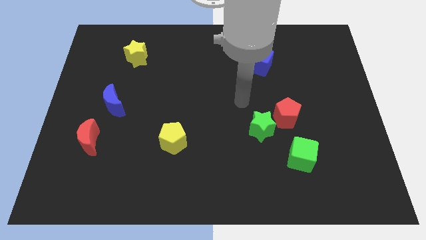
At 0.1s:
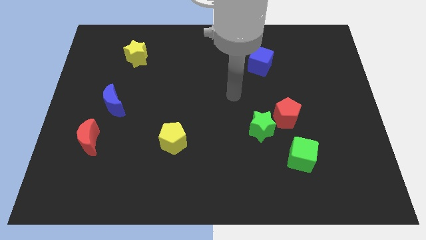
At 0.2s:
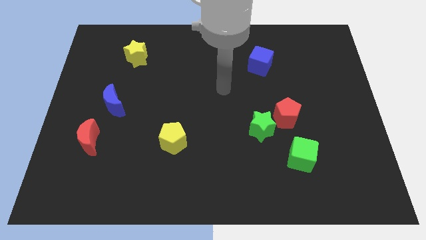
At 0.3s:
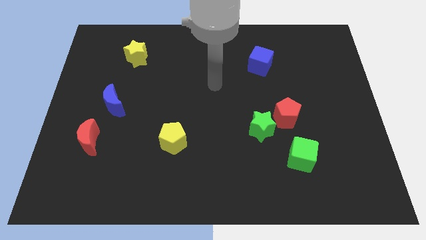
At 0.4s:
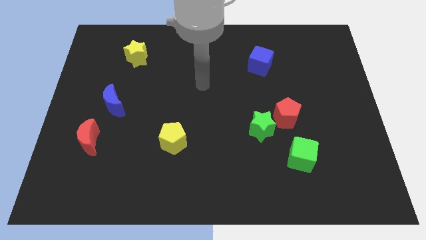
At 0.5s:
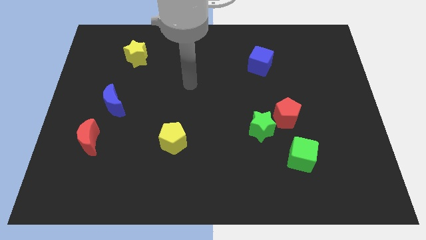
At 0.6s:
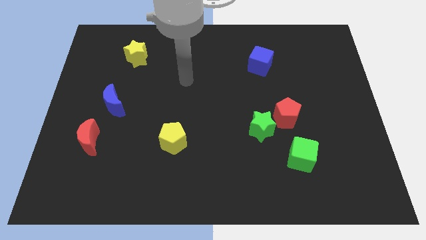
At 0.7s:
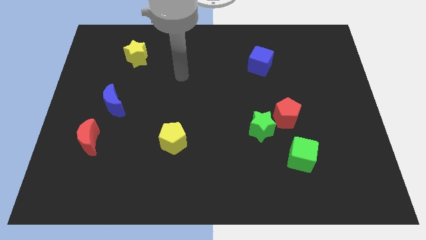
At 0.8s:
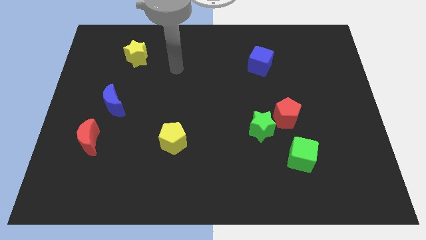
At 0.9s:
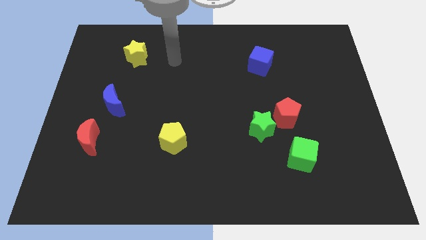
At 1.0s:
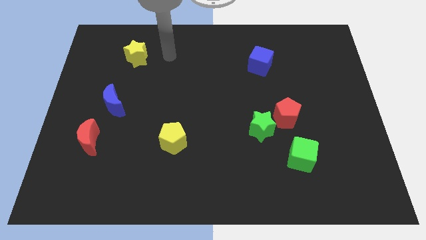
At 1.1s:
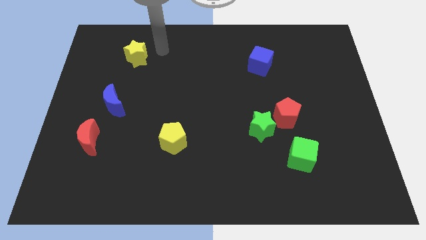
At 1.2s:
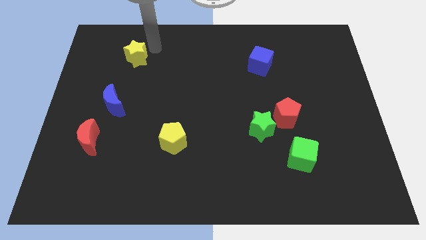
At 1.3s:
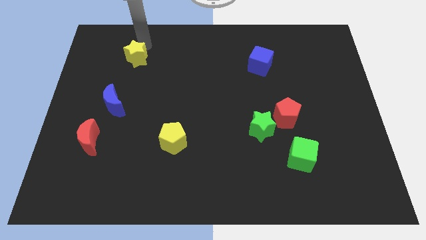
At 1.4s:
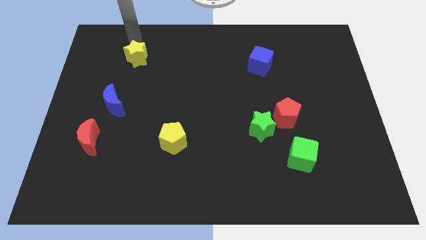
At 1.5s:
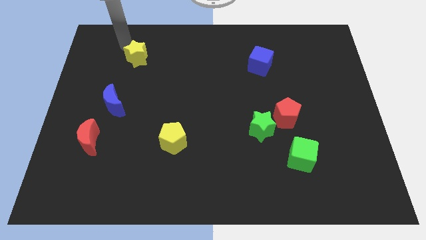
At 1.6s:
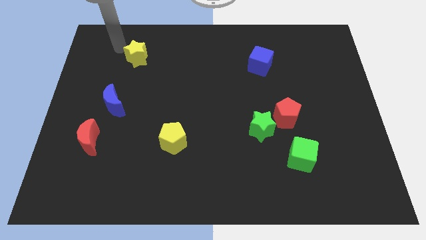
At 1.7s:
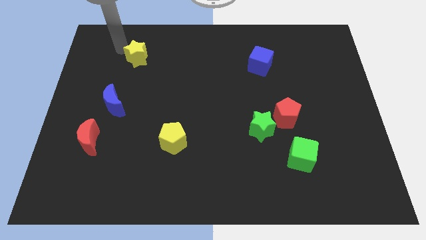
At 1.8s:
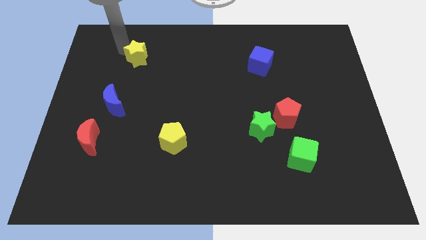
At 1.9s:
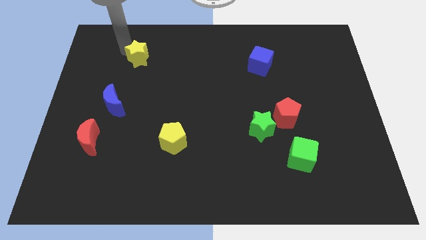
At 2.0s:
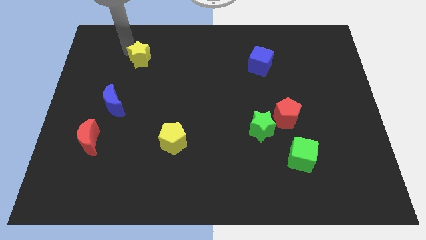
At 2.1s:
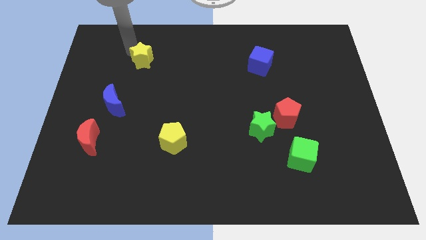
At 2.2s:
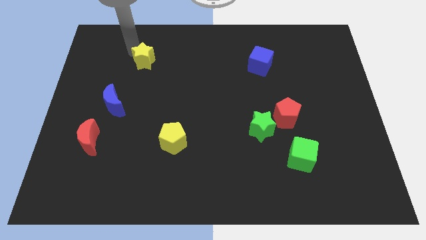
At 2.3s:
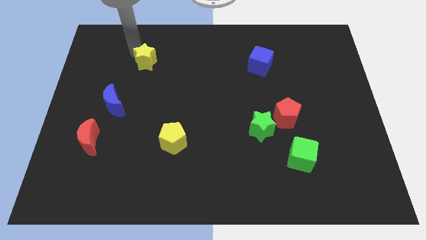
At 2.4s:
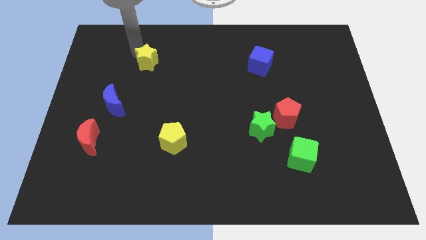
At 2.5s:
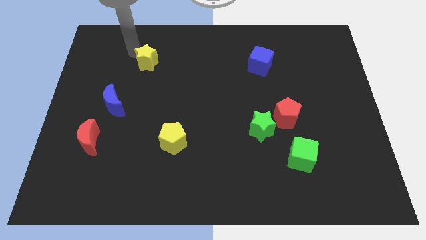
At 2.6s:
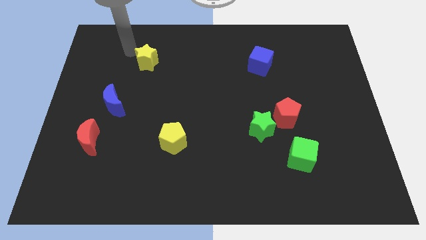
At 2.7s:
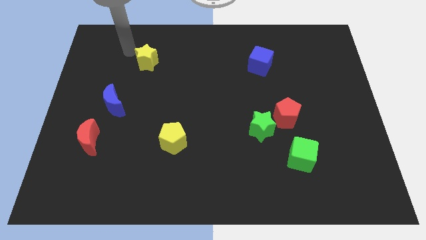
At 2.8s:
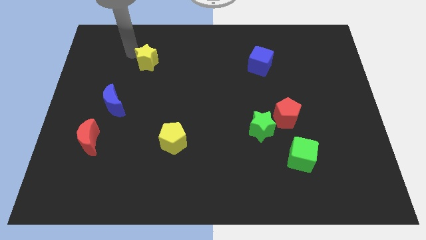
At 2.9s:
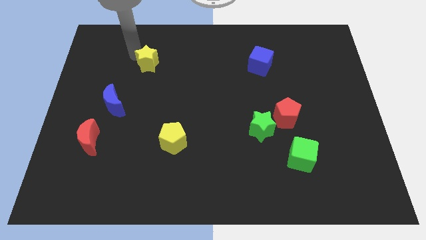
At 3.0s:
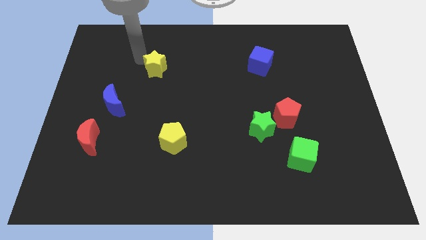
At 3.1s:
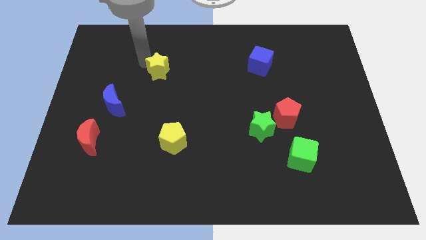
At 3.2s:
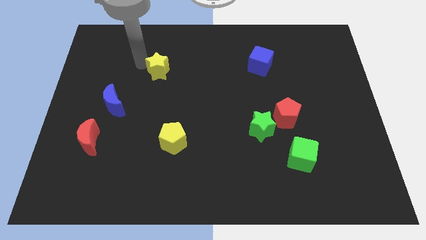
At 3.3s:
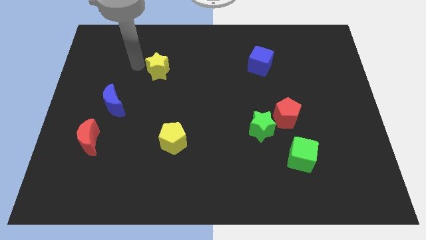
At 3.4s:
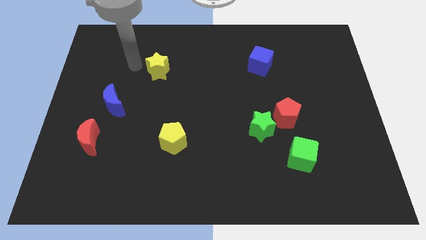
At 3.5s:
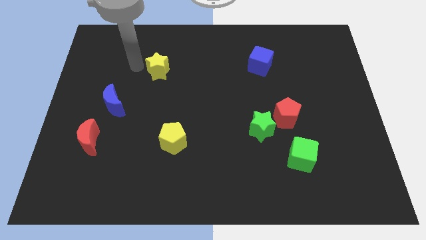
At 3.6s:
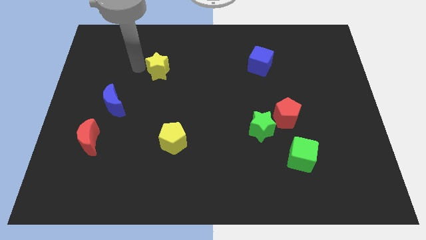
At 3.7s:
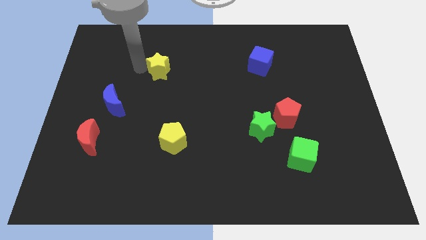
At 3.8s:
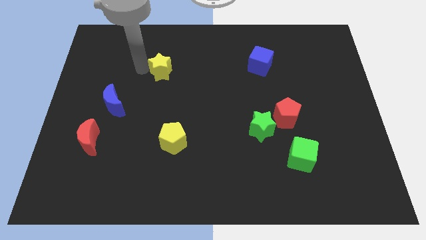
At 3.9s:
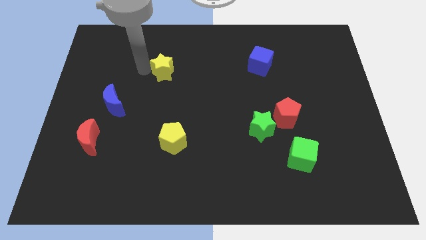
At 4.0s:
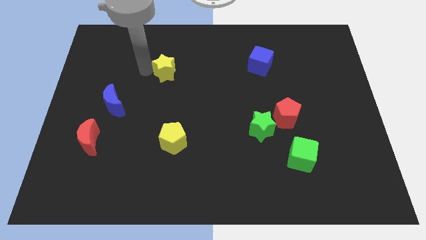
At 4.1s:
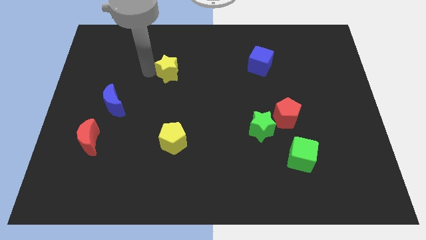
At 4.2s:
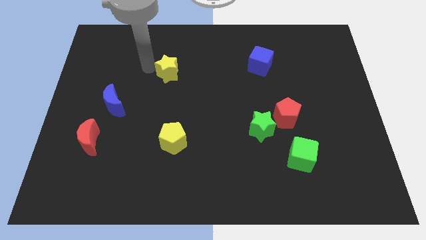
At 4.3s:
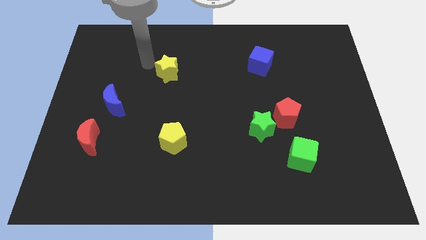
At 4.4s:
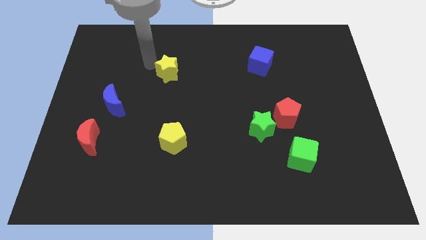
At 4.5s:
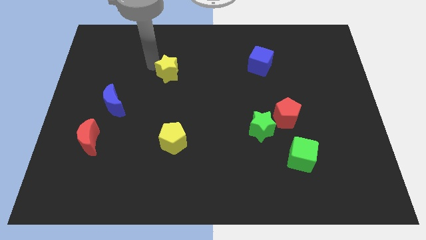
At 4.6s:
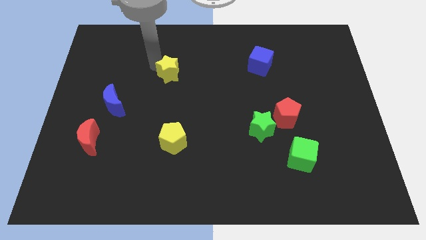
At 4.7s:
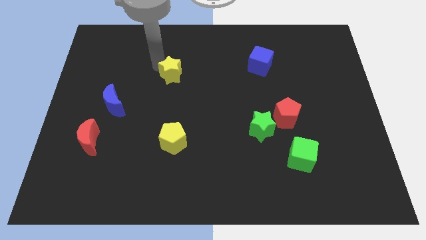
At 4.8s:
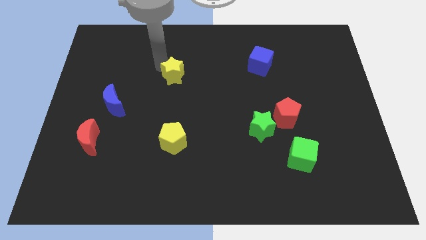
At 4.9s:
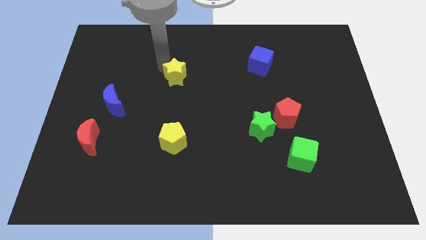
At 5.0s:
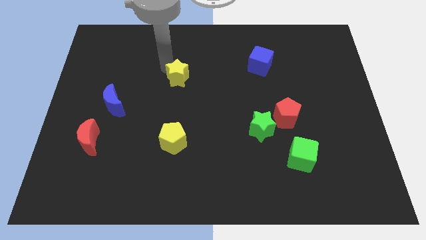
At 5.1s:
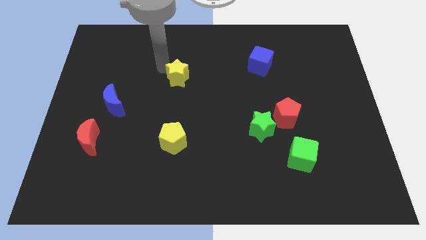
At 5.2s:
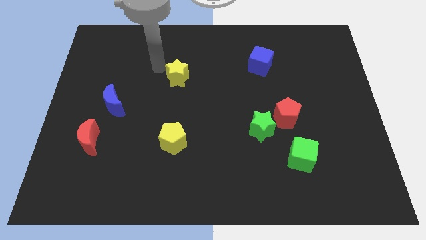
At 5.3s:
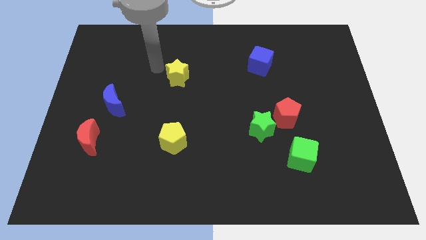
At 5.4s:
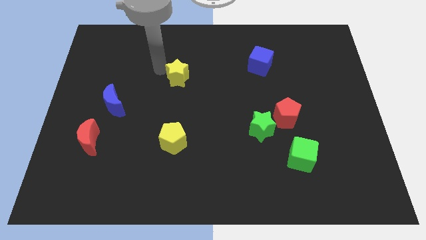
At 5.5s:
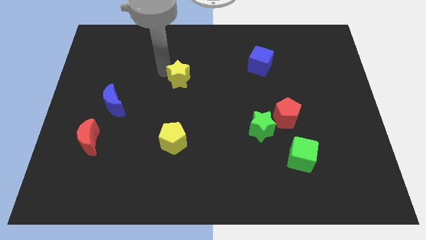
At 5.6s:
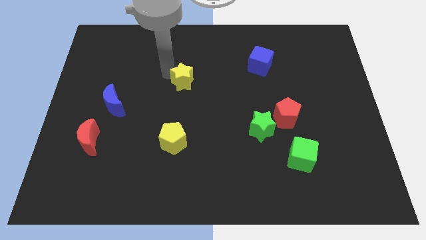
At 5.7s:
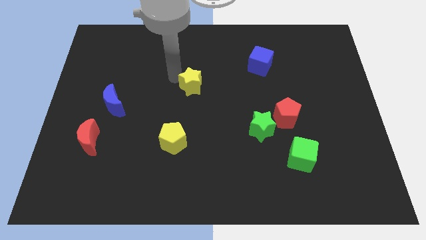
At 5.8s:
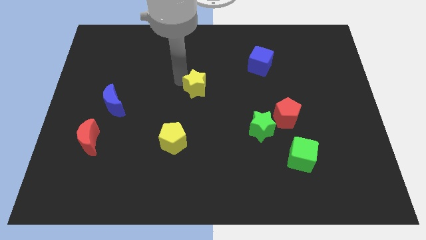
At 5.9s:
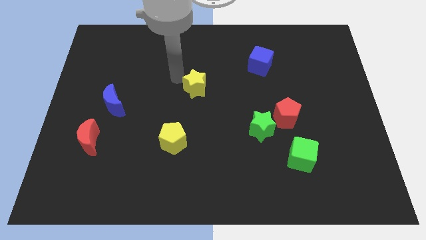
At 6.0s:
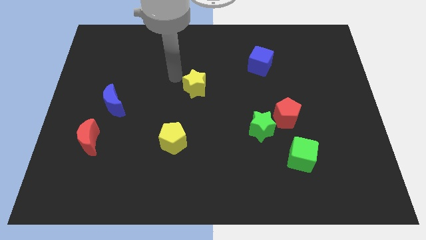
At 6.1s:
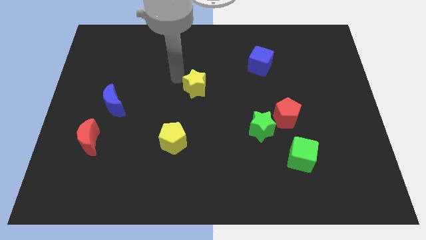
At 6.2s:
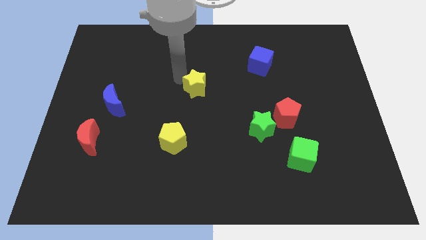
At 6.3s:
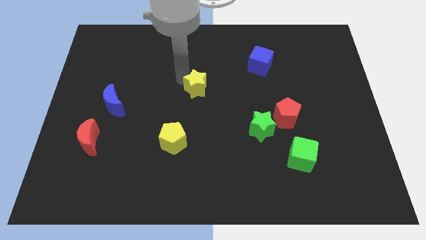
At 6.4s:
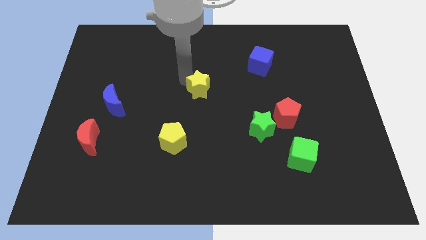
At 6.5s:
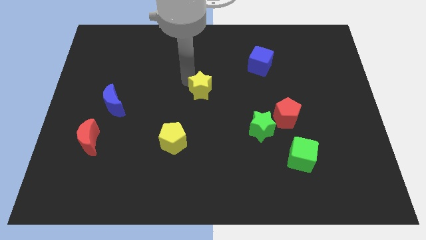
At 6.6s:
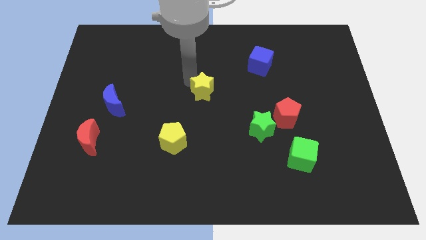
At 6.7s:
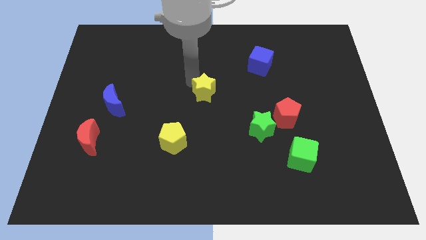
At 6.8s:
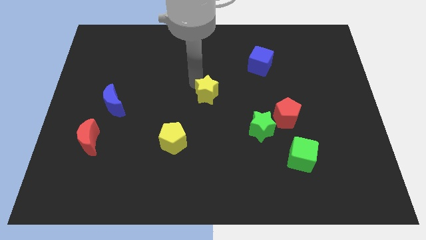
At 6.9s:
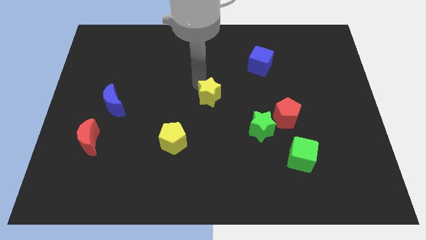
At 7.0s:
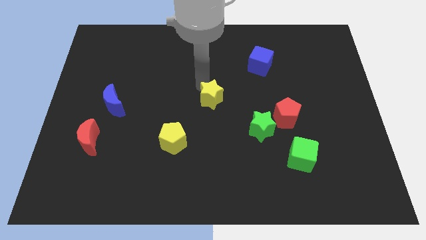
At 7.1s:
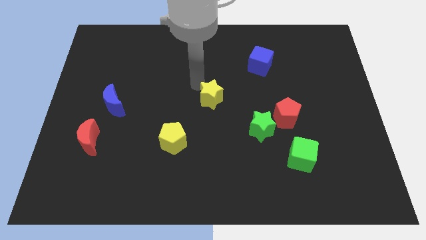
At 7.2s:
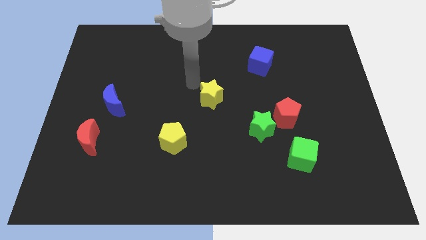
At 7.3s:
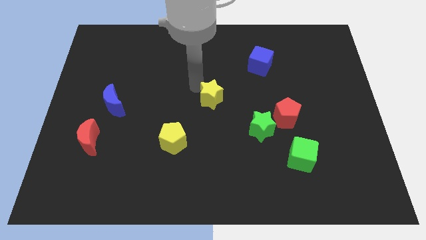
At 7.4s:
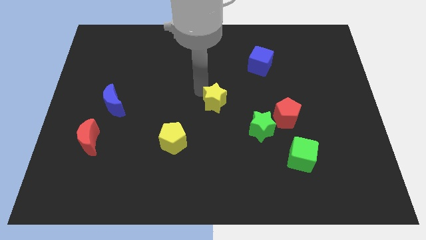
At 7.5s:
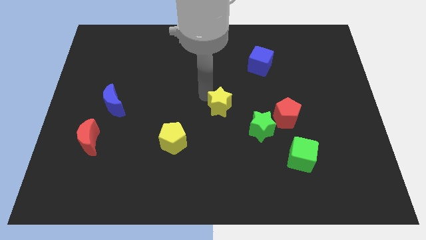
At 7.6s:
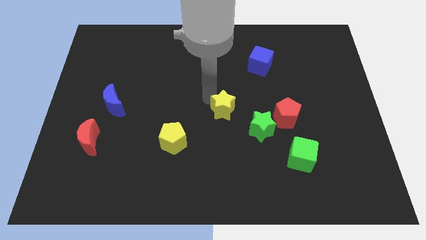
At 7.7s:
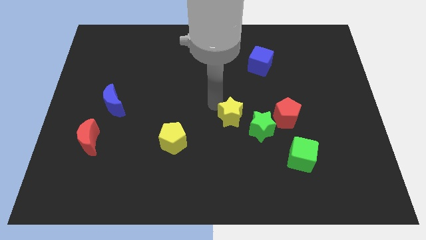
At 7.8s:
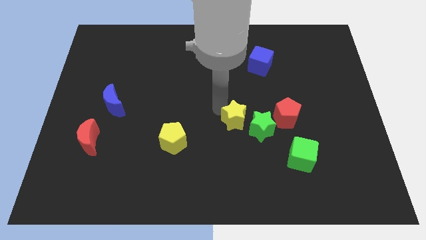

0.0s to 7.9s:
move the yellow star to the green star

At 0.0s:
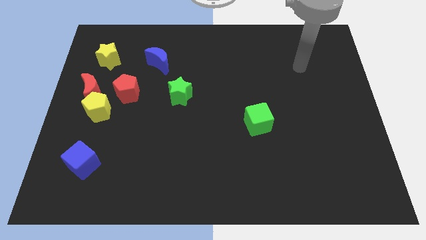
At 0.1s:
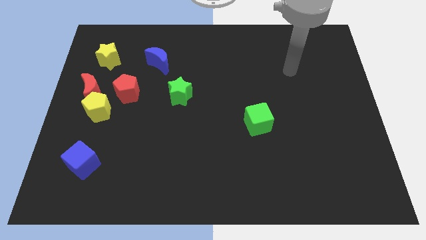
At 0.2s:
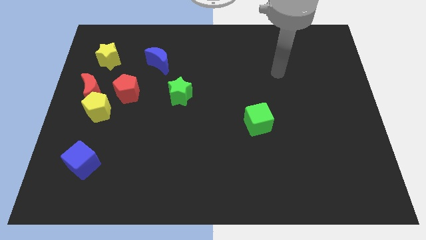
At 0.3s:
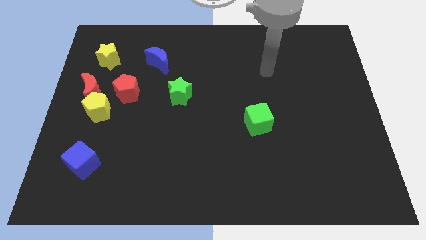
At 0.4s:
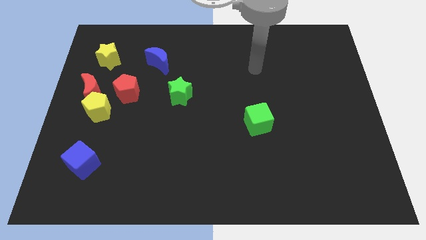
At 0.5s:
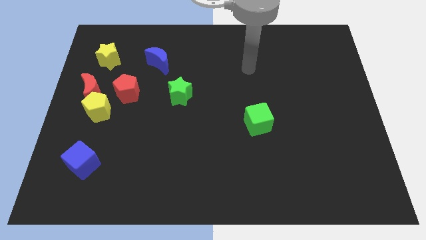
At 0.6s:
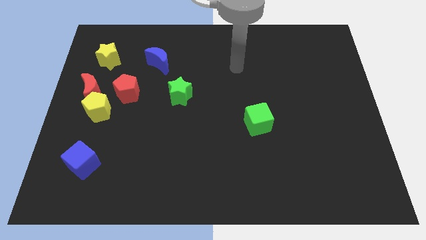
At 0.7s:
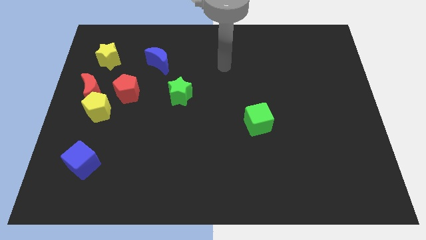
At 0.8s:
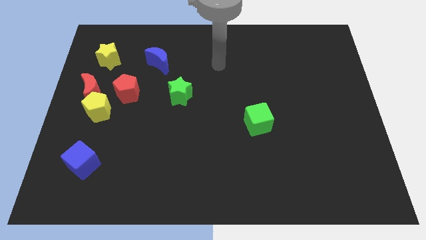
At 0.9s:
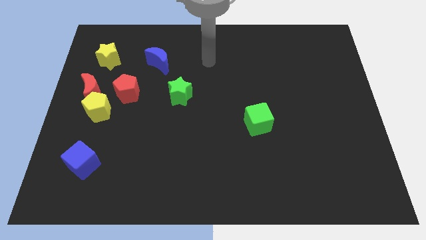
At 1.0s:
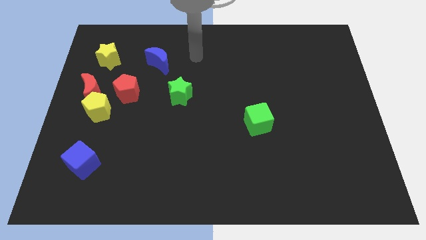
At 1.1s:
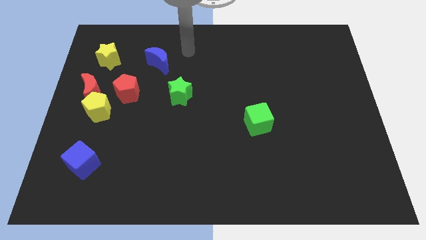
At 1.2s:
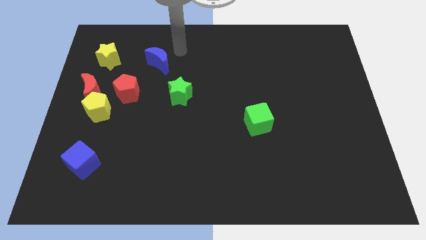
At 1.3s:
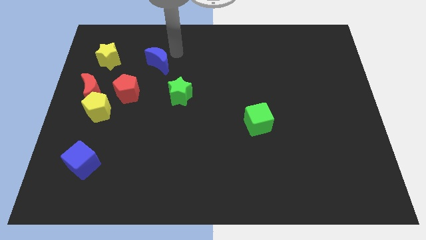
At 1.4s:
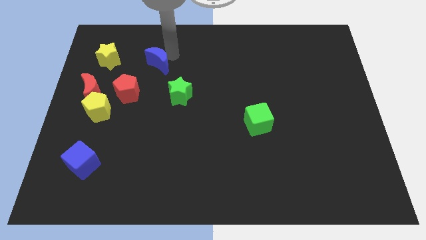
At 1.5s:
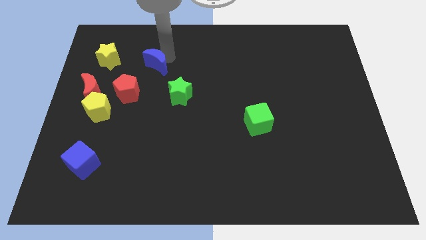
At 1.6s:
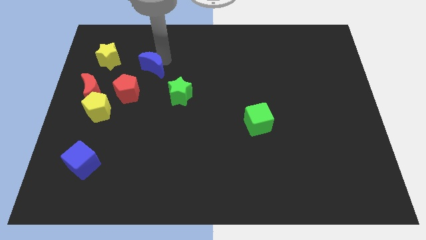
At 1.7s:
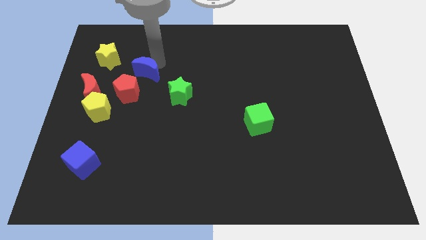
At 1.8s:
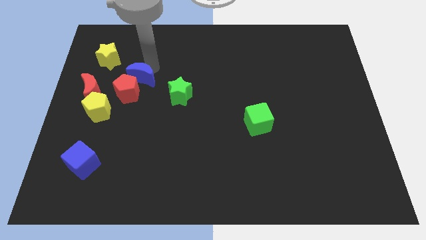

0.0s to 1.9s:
move the blue moon close to the red pentagon
